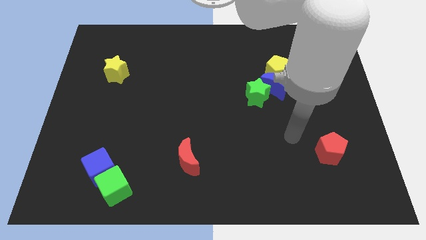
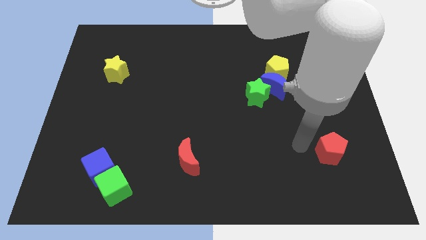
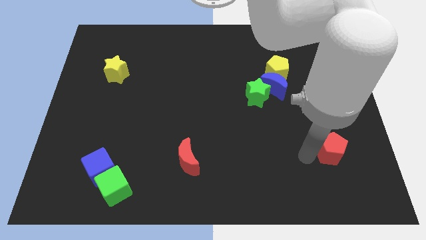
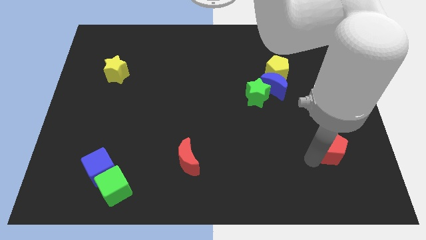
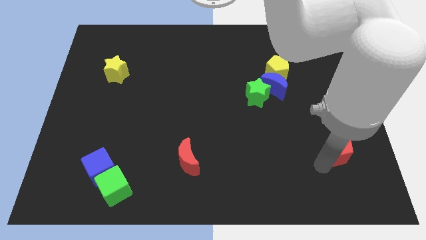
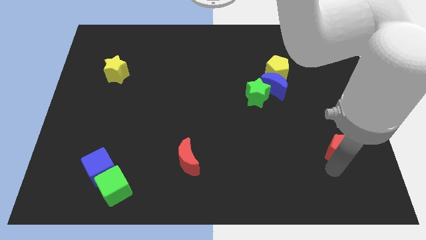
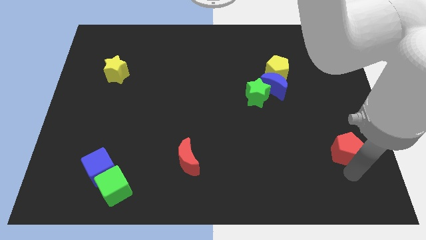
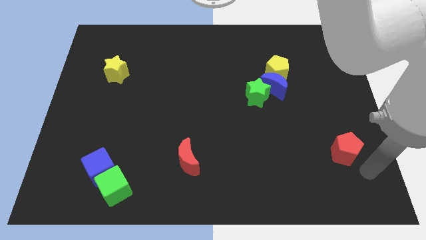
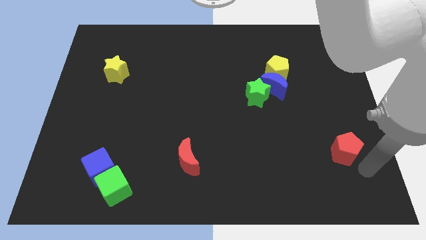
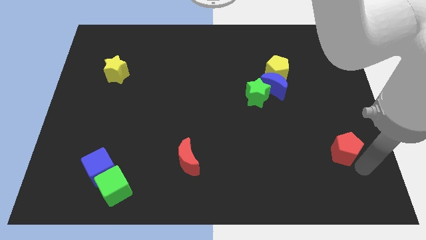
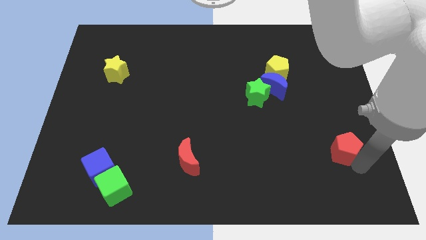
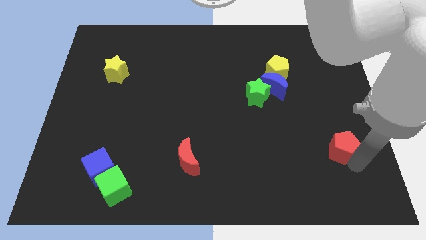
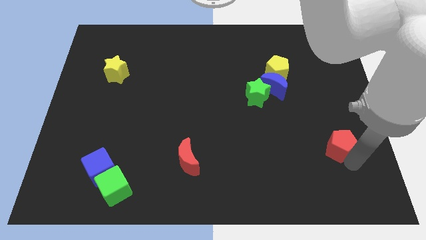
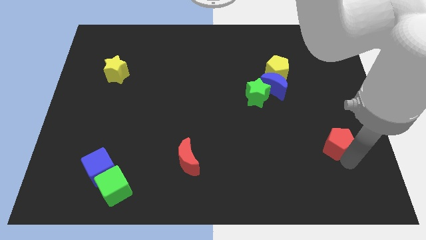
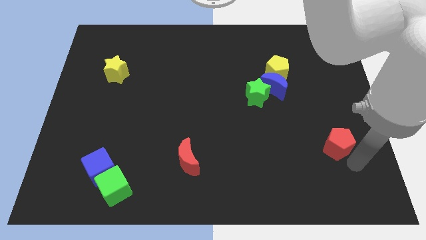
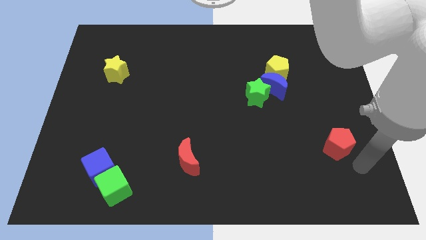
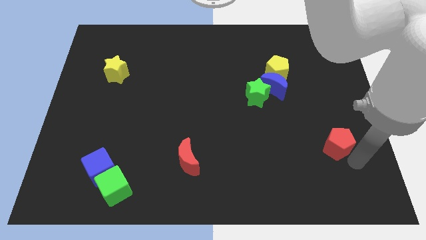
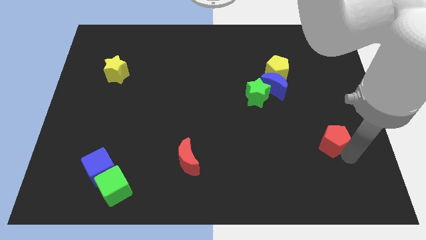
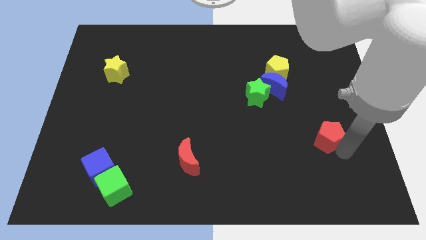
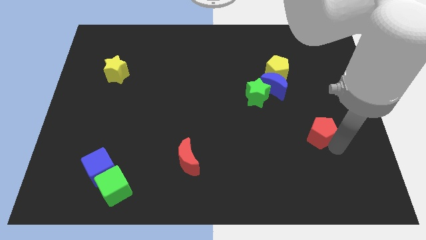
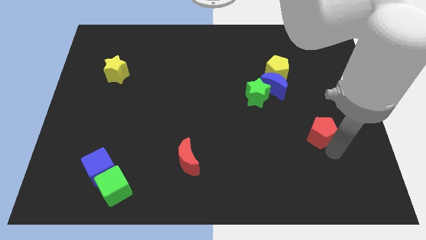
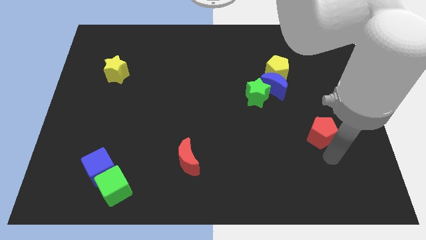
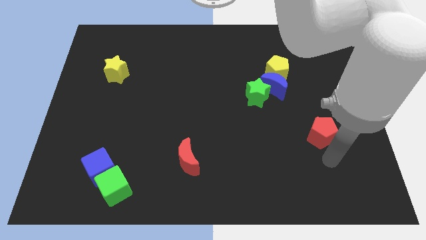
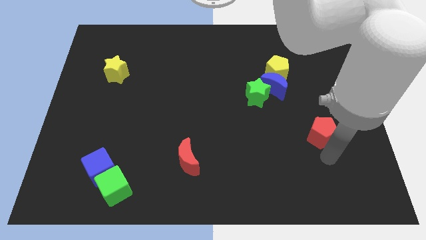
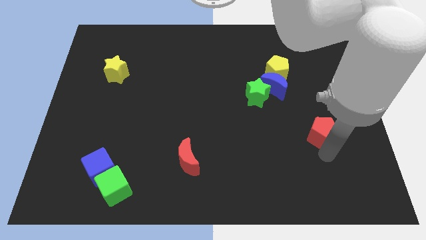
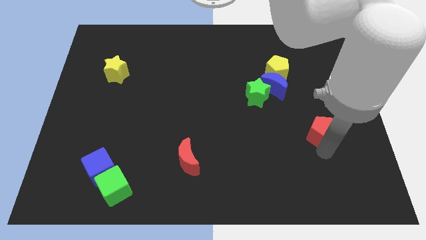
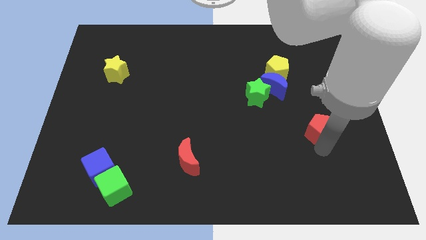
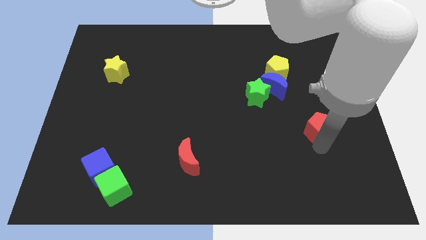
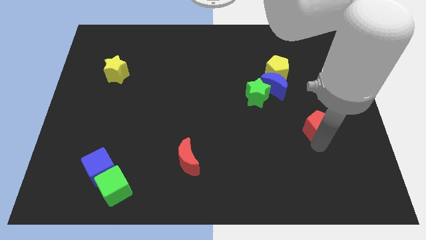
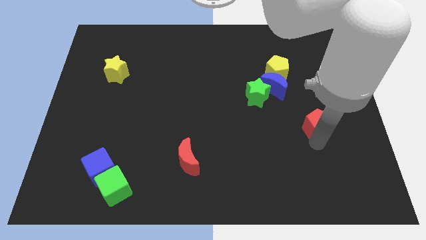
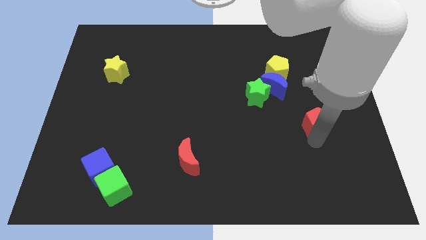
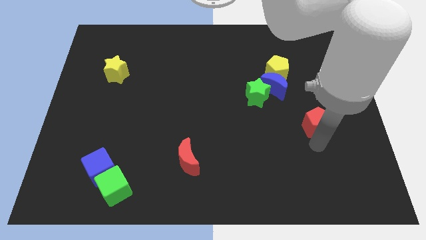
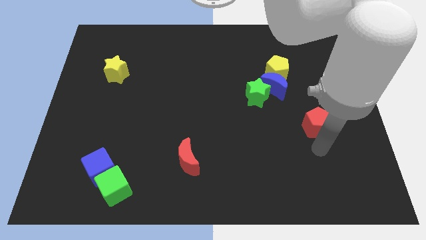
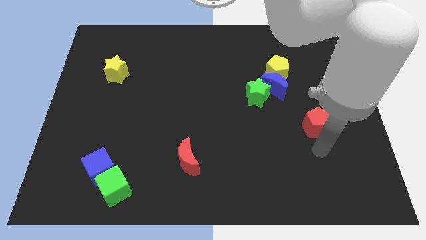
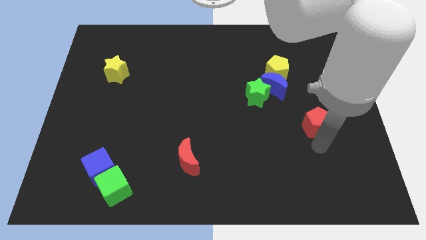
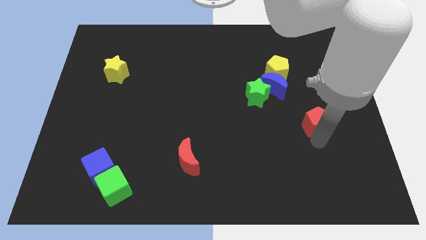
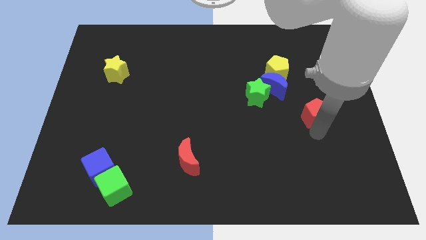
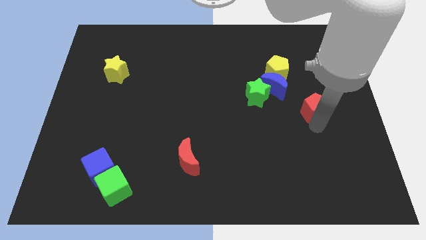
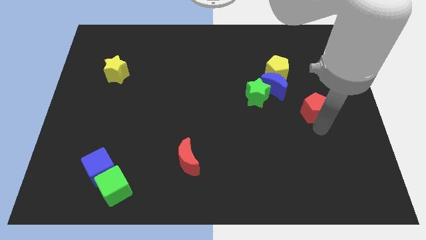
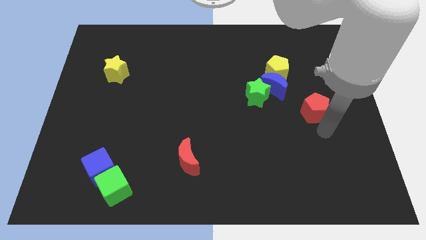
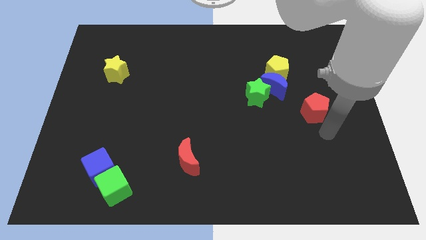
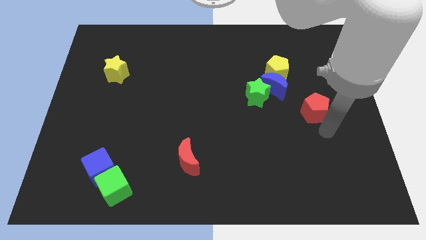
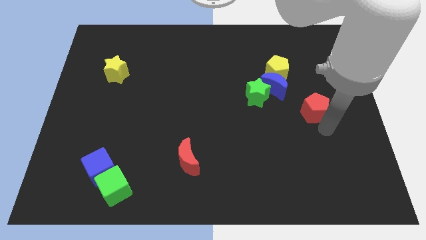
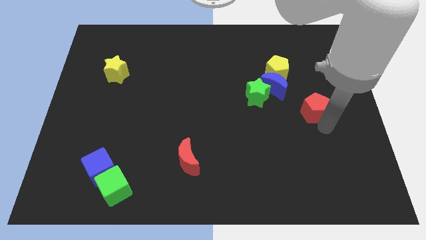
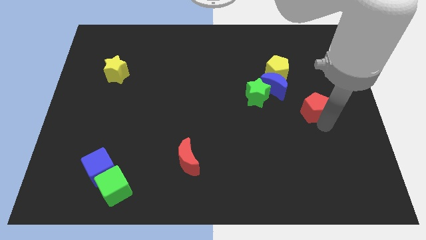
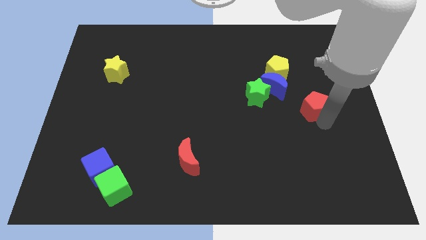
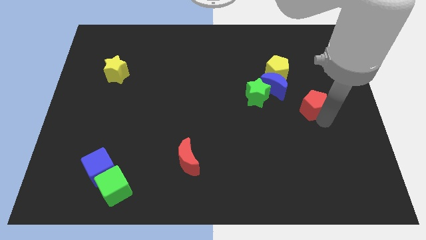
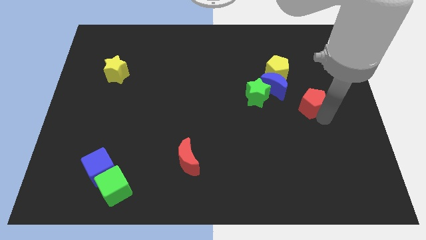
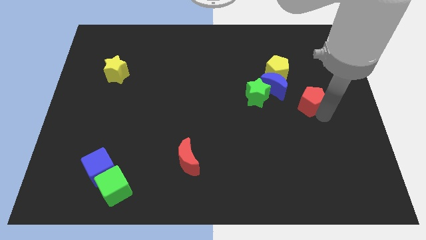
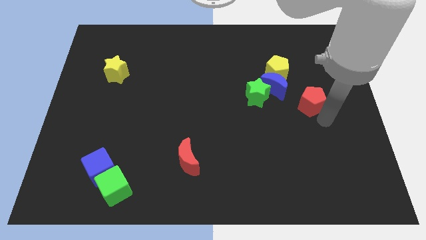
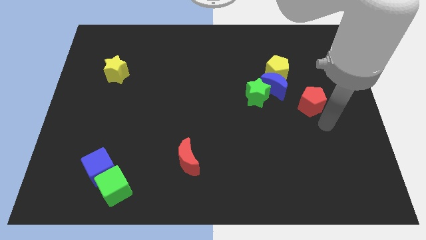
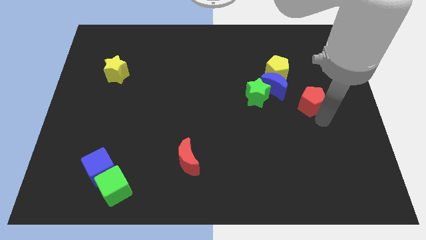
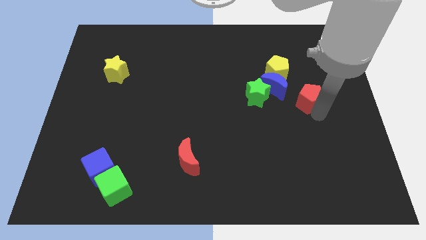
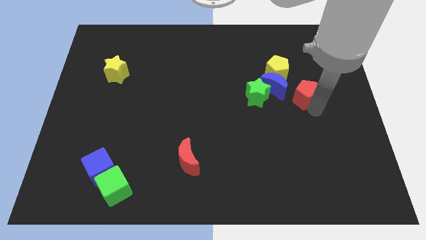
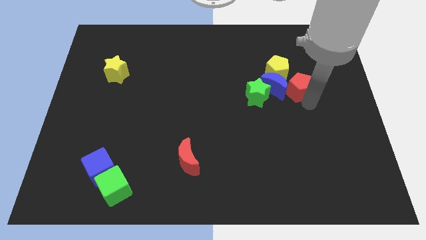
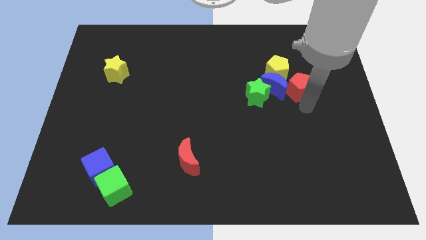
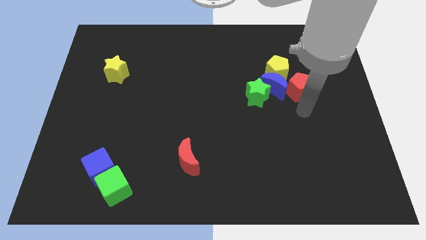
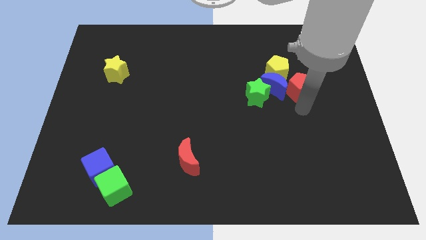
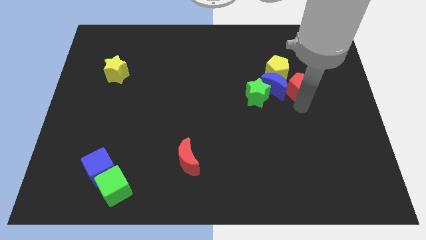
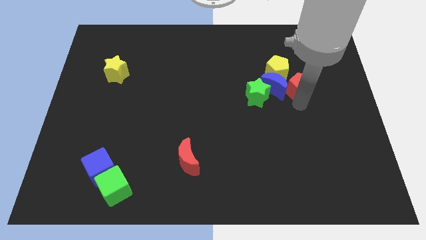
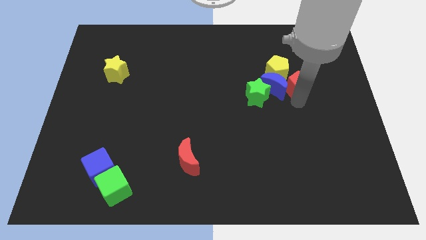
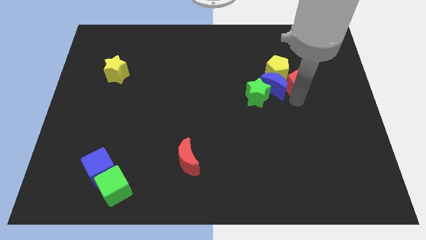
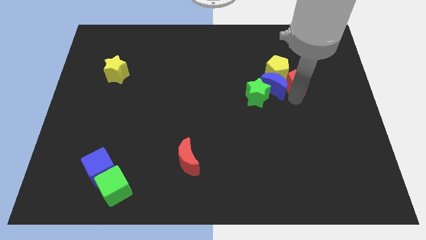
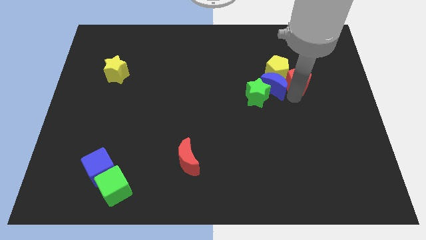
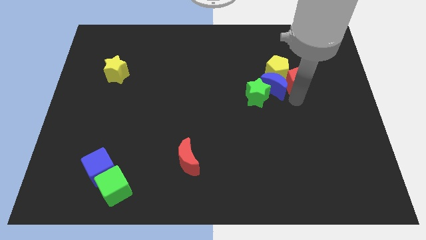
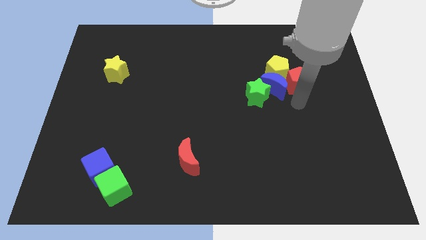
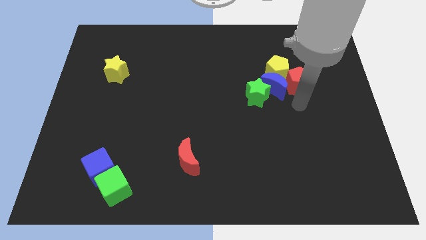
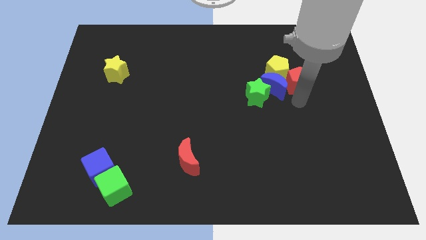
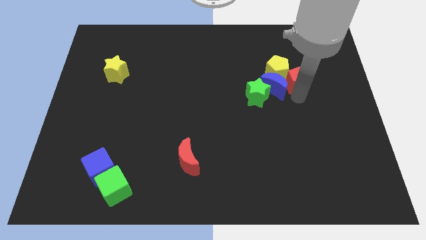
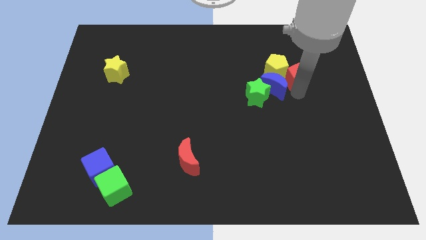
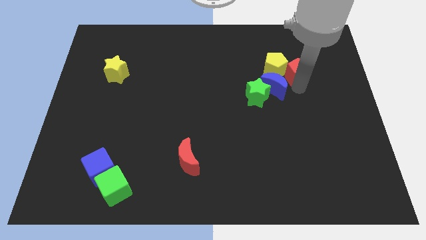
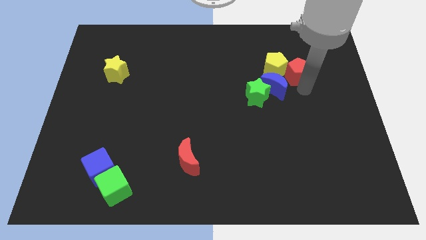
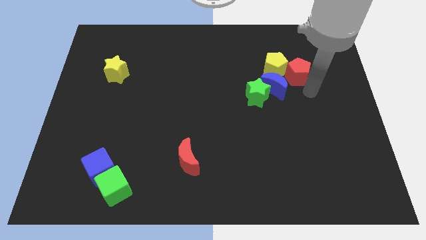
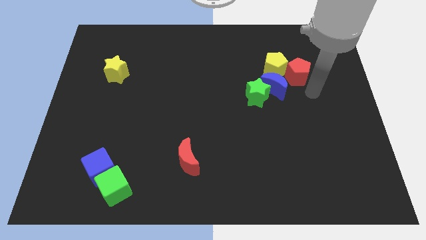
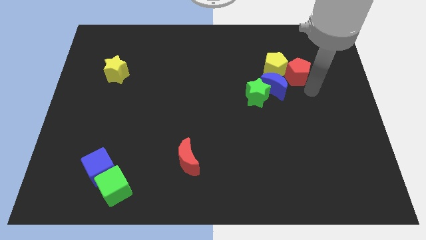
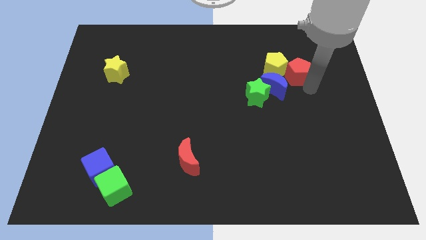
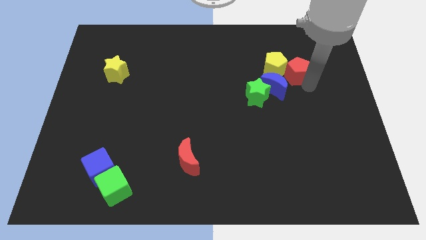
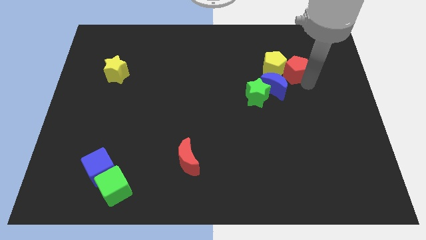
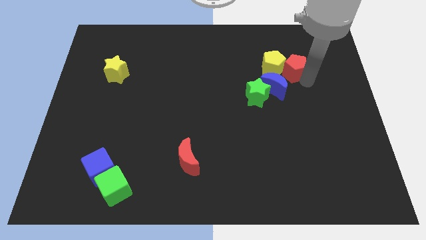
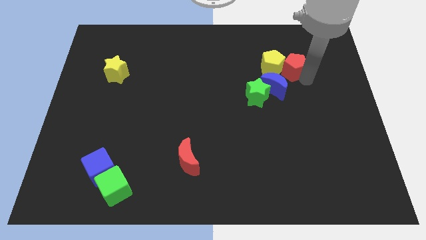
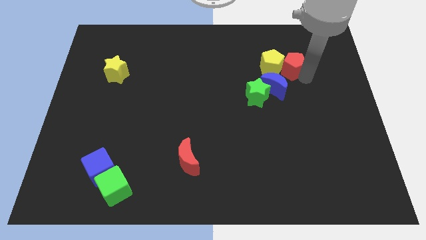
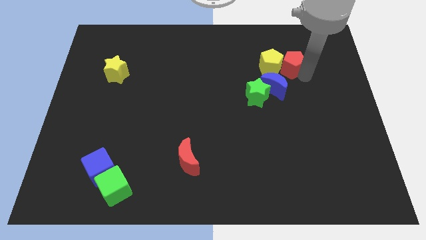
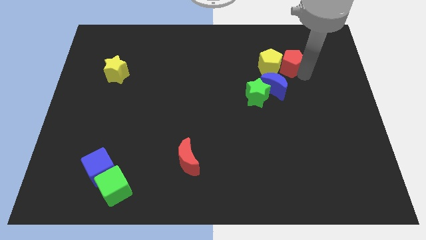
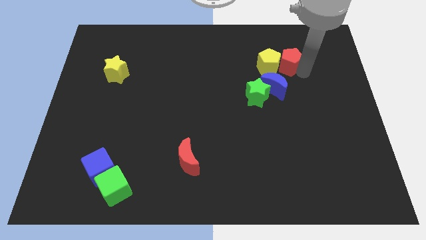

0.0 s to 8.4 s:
put the red pentagon above the blue moon
